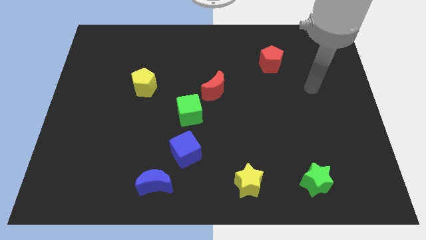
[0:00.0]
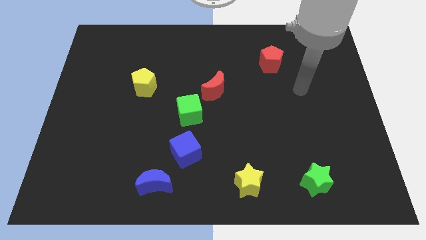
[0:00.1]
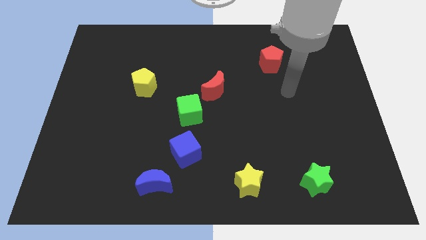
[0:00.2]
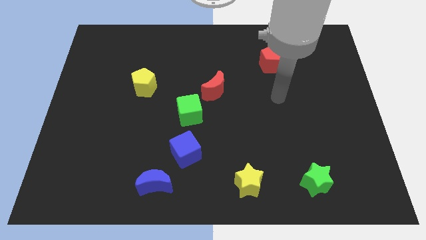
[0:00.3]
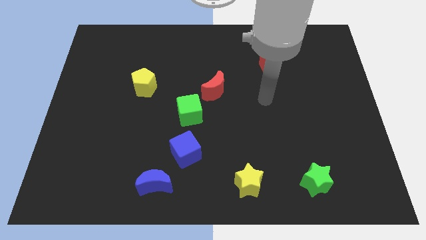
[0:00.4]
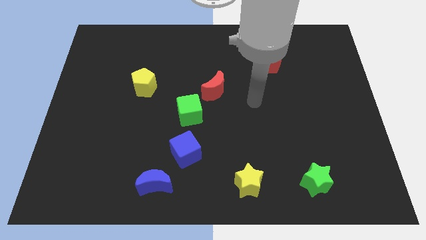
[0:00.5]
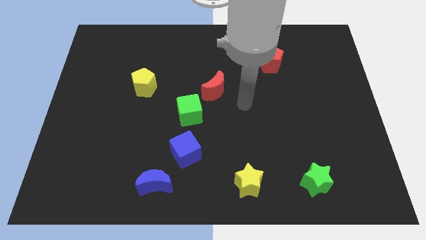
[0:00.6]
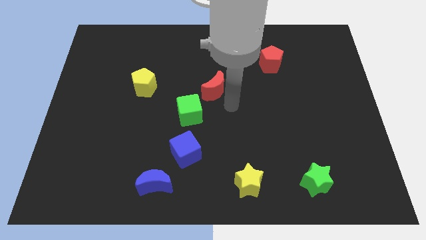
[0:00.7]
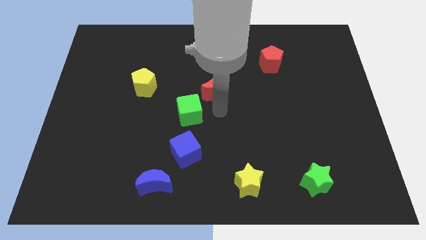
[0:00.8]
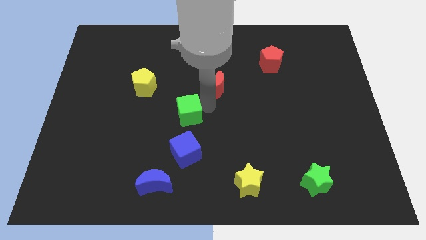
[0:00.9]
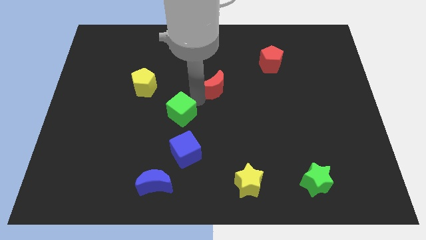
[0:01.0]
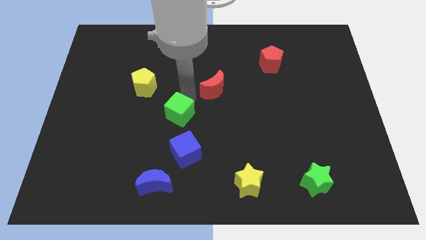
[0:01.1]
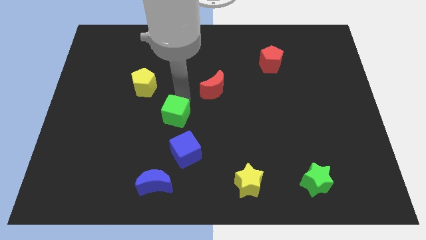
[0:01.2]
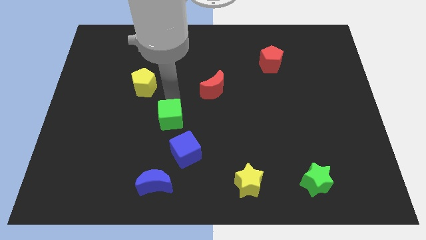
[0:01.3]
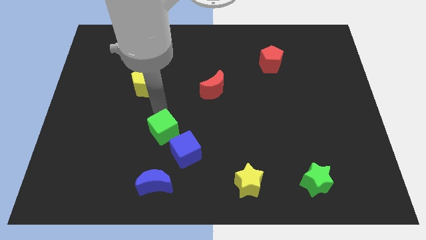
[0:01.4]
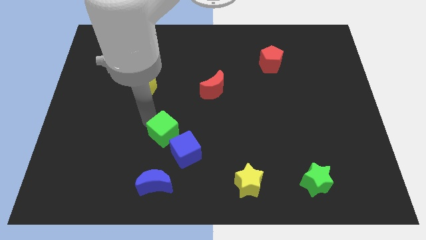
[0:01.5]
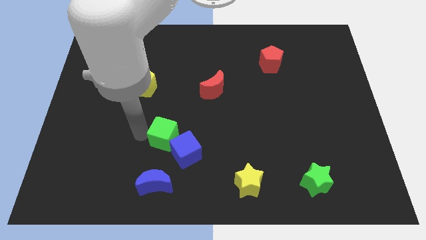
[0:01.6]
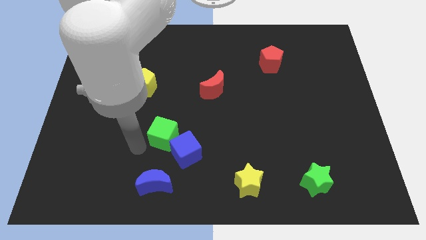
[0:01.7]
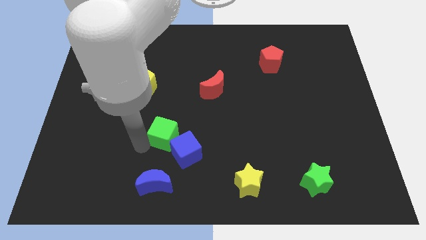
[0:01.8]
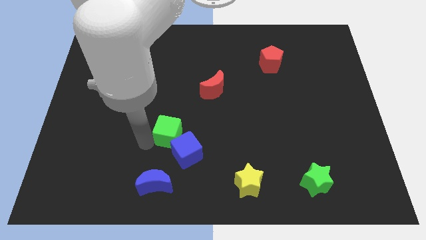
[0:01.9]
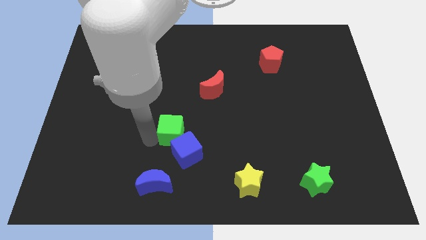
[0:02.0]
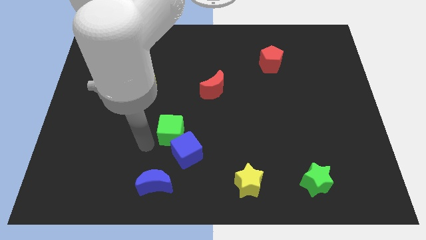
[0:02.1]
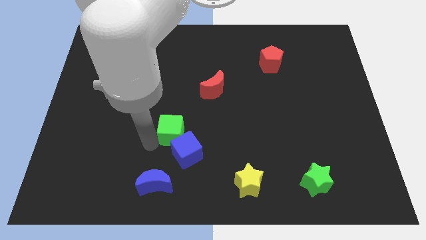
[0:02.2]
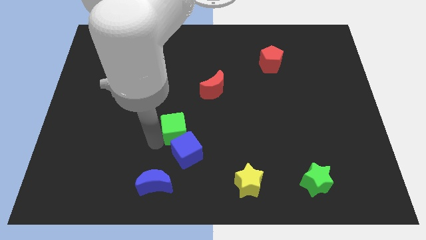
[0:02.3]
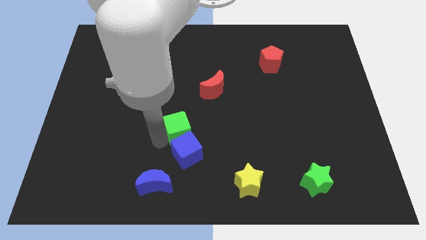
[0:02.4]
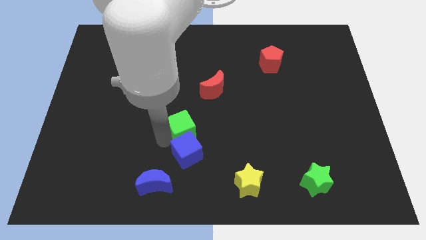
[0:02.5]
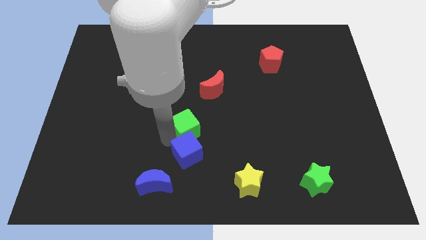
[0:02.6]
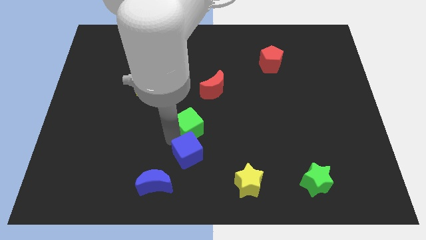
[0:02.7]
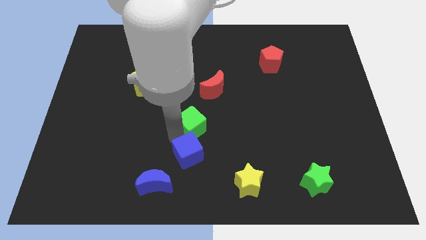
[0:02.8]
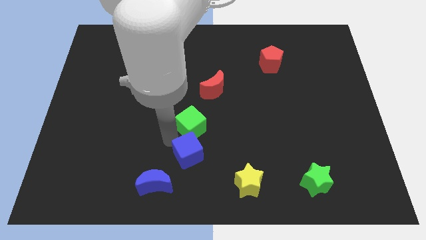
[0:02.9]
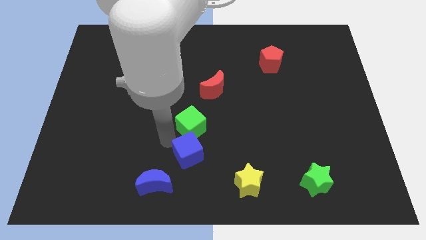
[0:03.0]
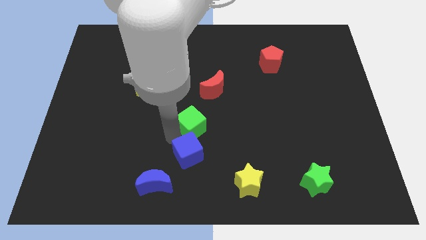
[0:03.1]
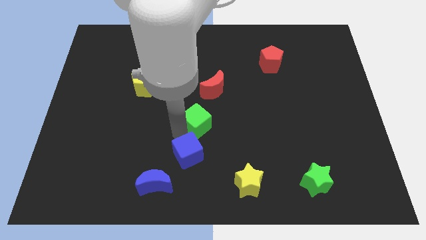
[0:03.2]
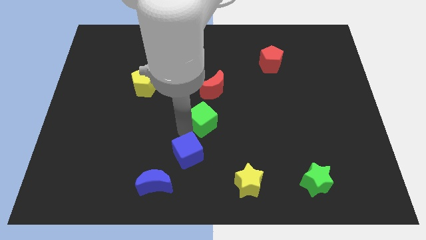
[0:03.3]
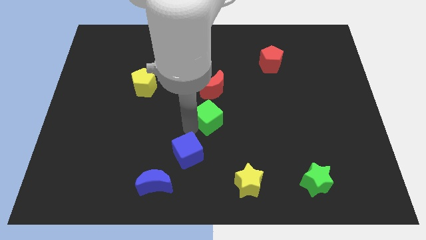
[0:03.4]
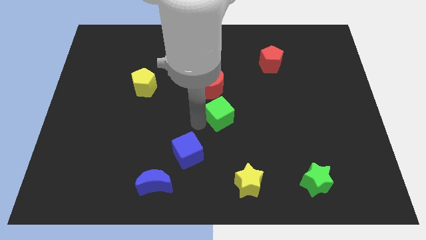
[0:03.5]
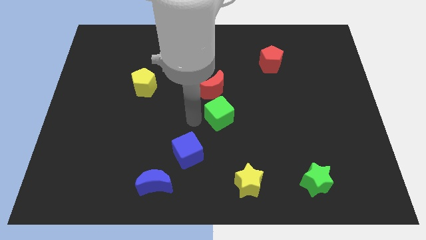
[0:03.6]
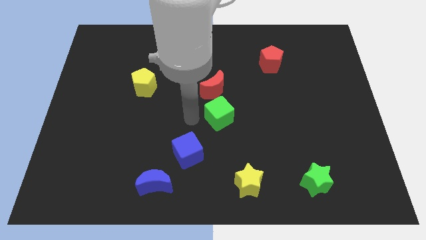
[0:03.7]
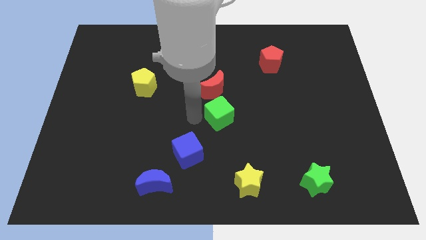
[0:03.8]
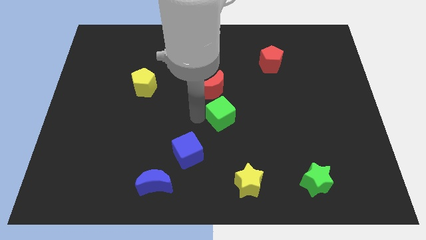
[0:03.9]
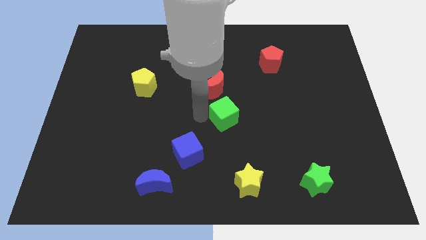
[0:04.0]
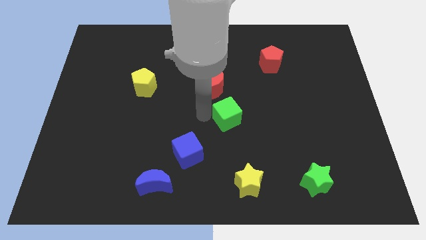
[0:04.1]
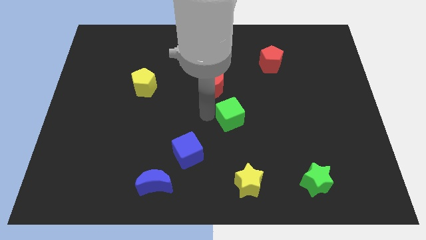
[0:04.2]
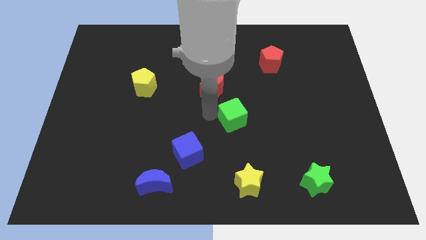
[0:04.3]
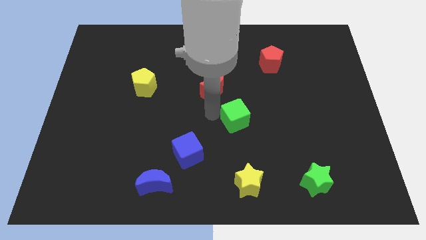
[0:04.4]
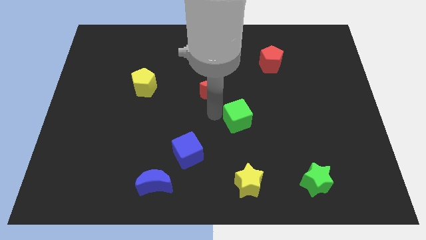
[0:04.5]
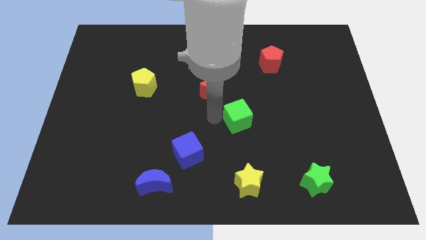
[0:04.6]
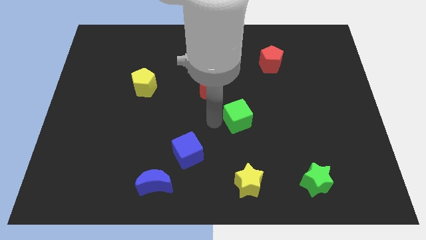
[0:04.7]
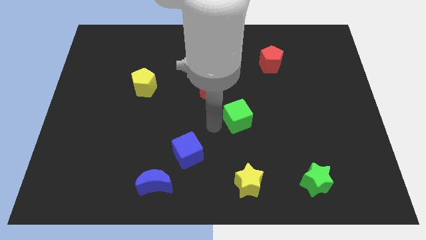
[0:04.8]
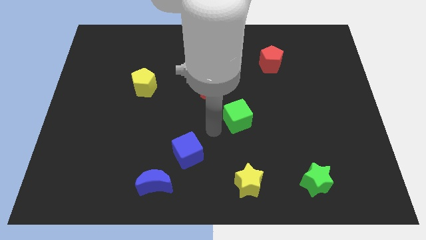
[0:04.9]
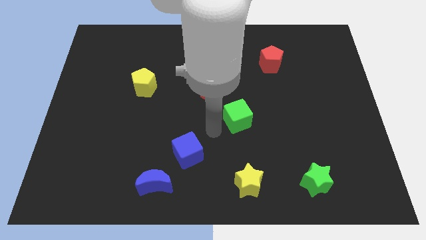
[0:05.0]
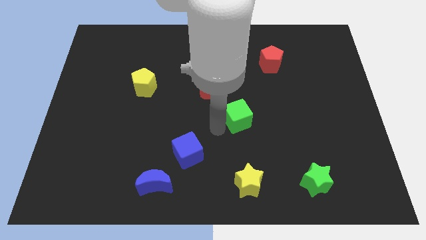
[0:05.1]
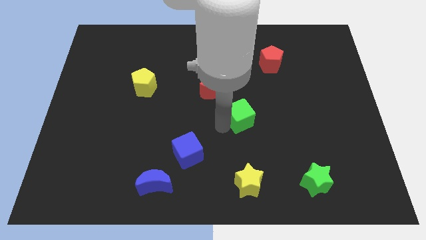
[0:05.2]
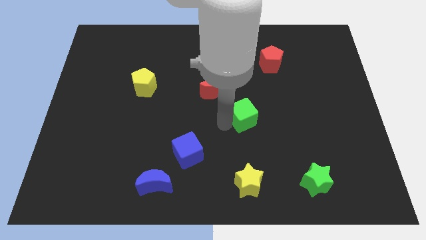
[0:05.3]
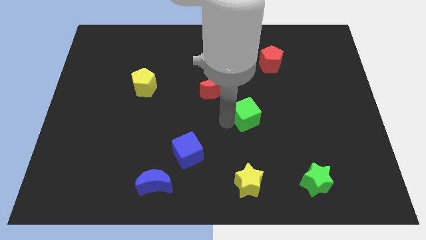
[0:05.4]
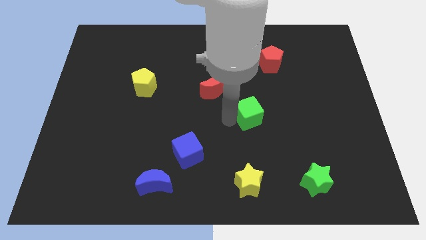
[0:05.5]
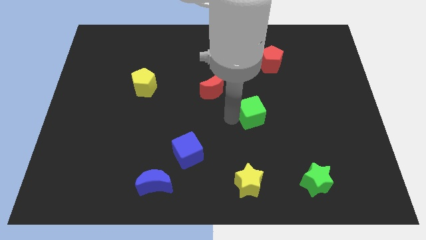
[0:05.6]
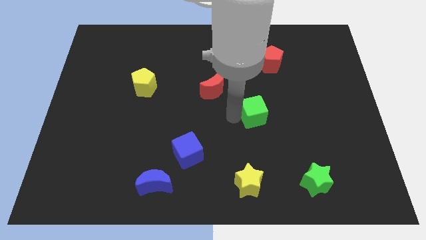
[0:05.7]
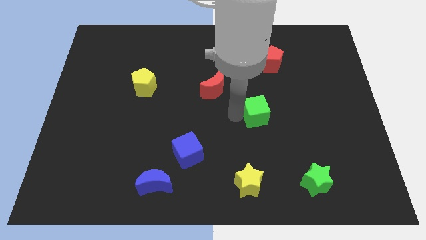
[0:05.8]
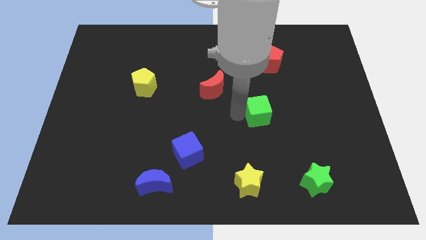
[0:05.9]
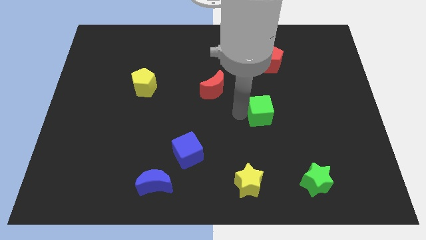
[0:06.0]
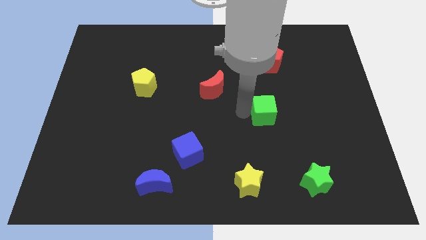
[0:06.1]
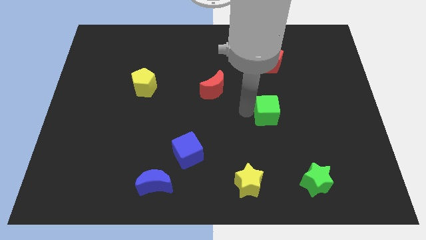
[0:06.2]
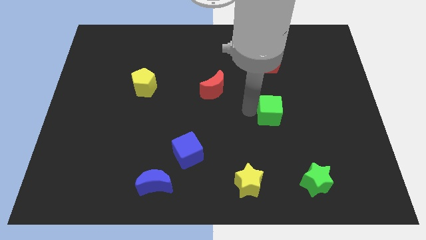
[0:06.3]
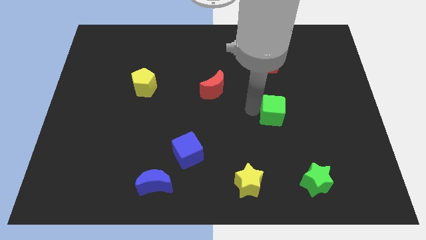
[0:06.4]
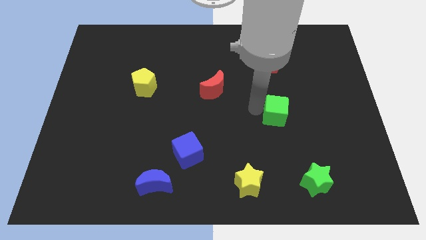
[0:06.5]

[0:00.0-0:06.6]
move the green cube to the right

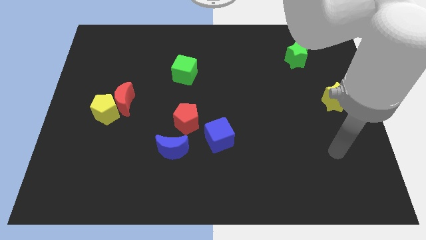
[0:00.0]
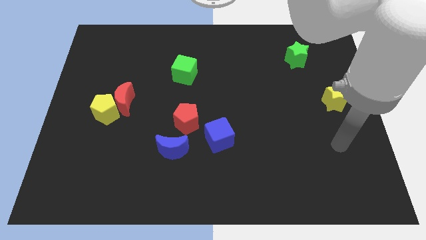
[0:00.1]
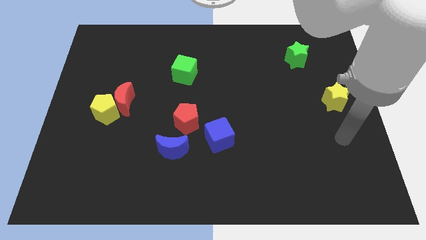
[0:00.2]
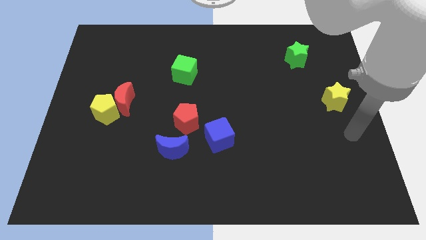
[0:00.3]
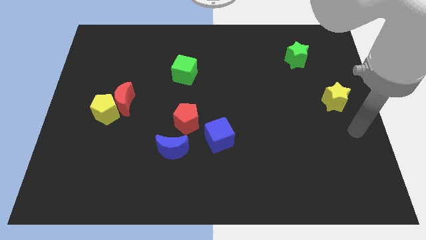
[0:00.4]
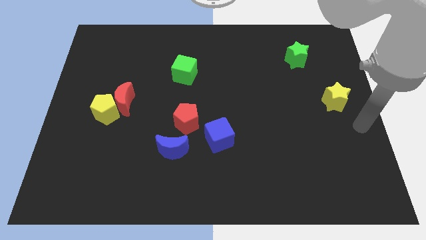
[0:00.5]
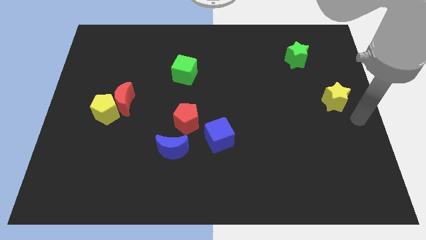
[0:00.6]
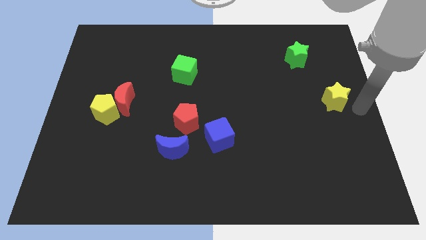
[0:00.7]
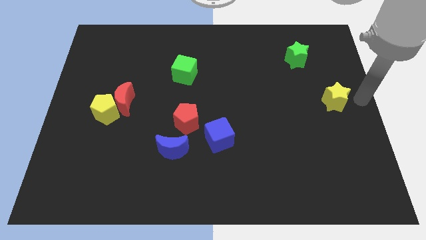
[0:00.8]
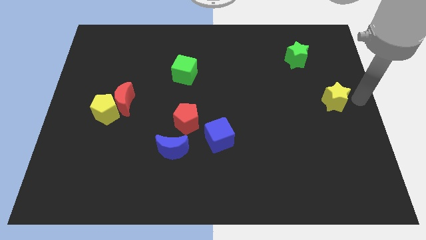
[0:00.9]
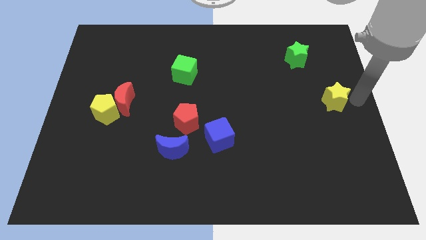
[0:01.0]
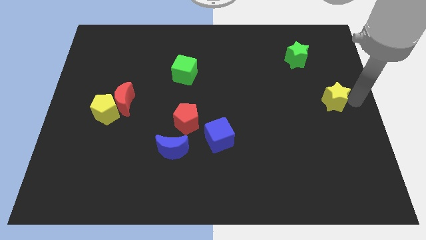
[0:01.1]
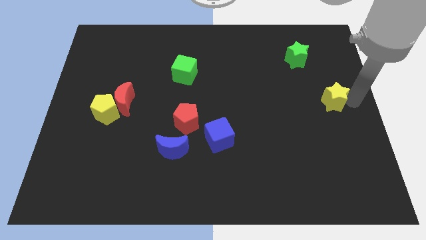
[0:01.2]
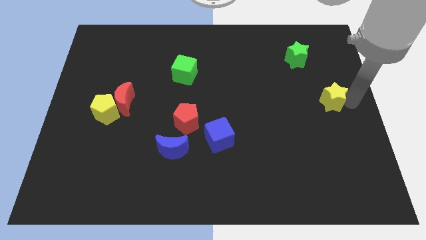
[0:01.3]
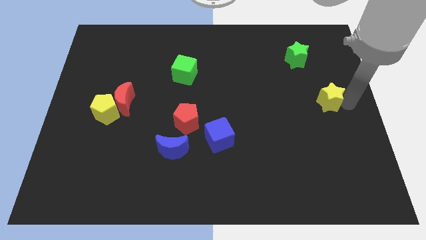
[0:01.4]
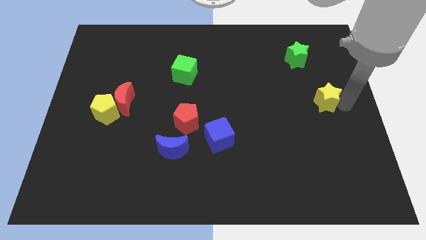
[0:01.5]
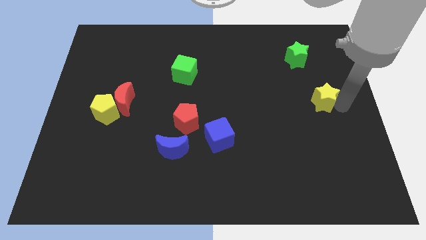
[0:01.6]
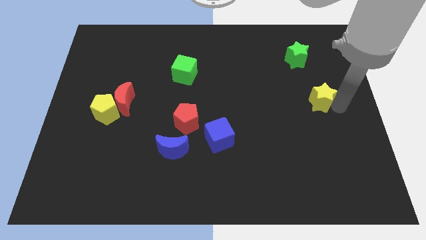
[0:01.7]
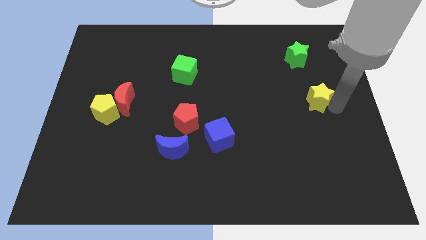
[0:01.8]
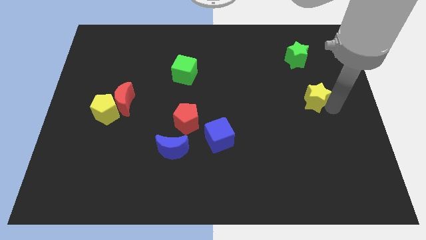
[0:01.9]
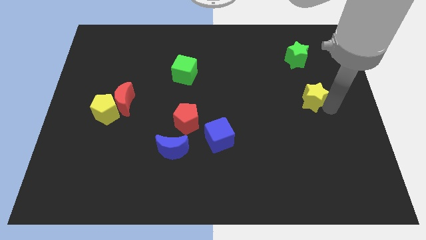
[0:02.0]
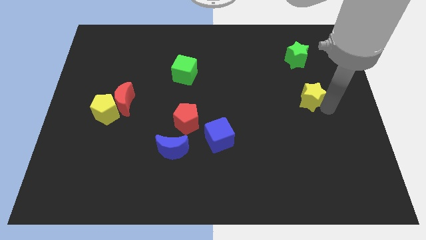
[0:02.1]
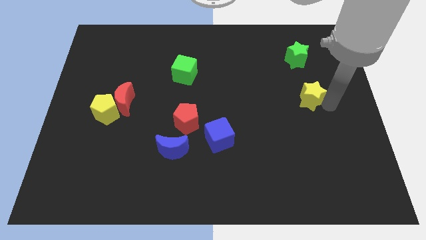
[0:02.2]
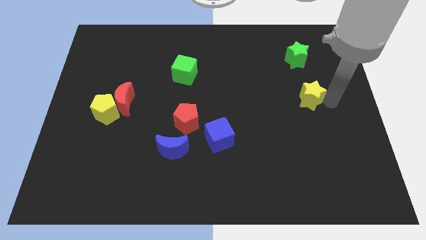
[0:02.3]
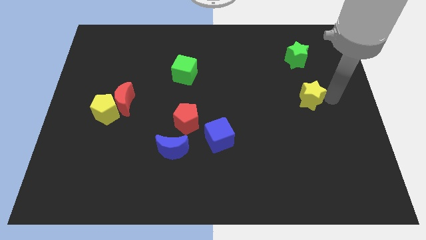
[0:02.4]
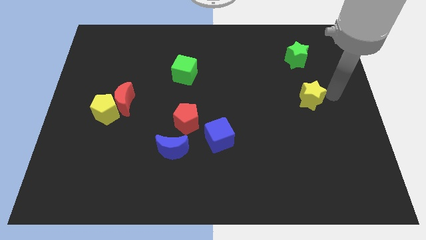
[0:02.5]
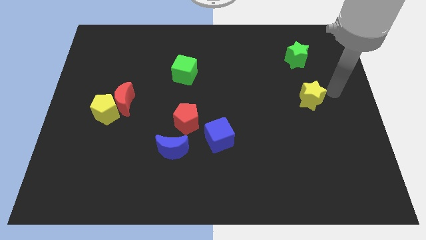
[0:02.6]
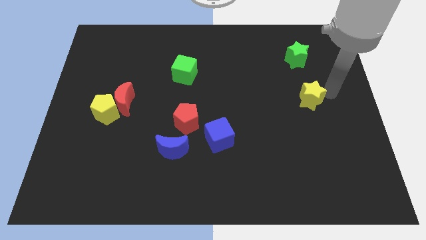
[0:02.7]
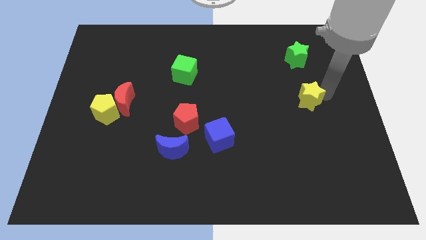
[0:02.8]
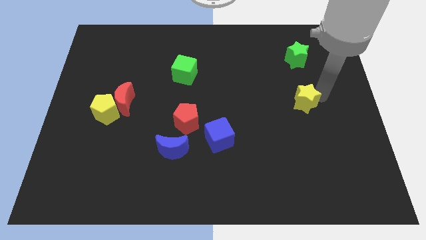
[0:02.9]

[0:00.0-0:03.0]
move the yellow star left a little
